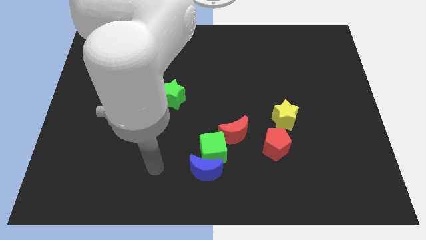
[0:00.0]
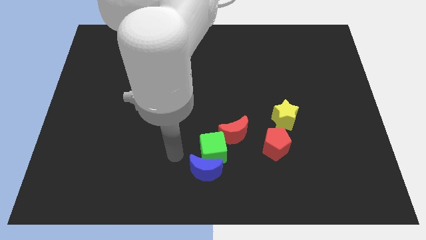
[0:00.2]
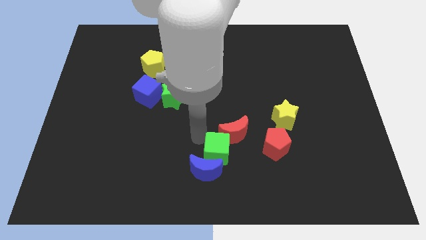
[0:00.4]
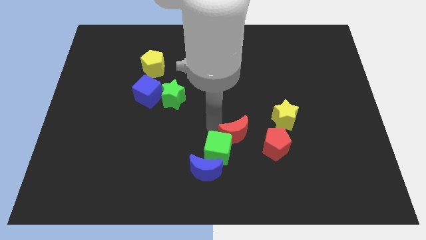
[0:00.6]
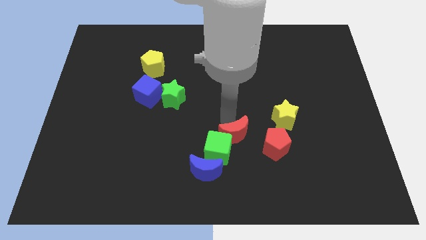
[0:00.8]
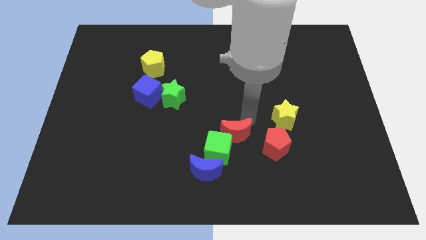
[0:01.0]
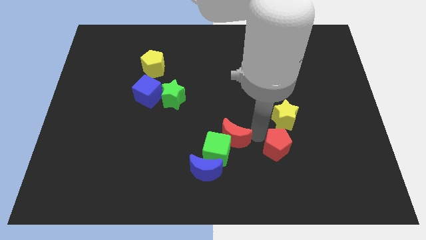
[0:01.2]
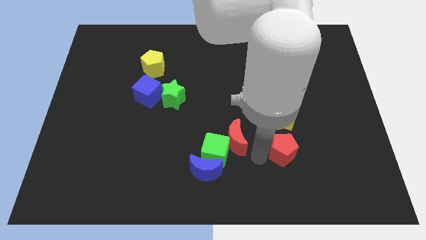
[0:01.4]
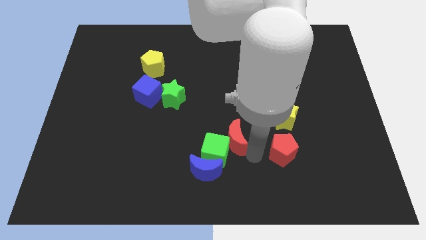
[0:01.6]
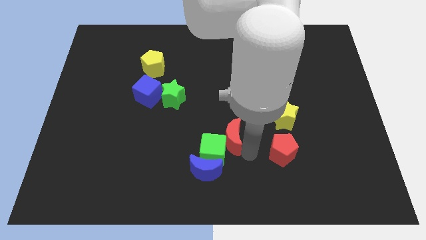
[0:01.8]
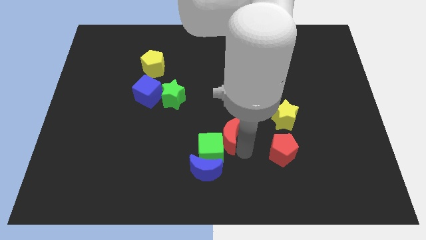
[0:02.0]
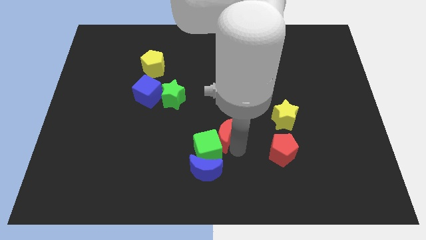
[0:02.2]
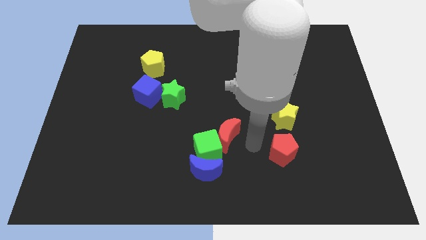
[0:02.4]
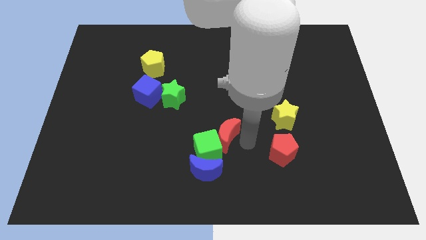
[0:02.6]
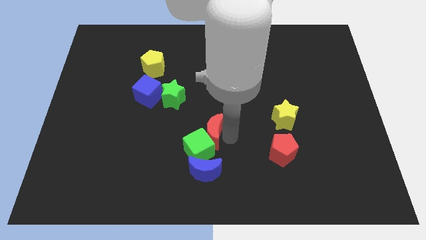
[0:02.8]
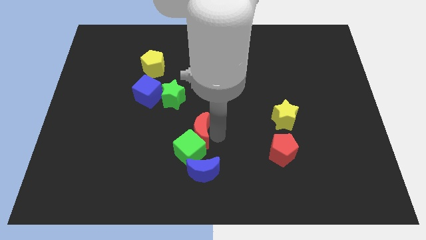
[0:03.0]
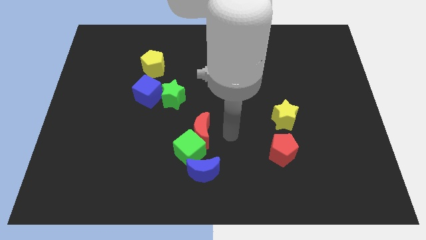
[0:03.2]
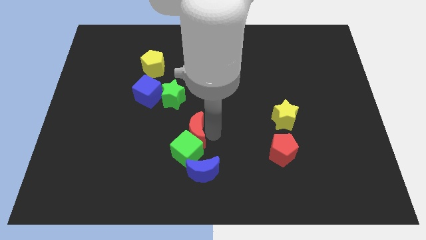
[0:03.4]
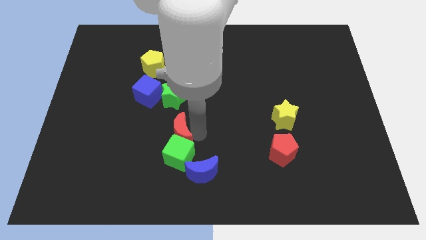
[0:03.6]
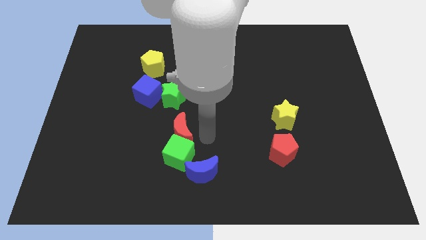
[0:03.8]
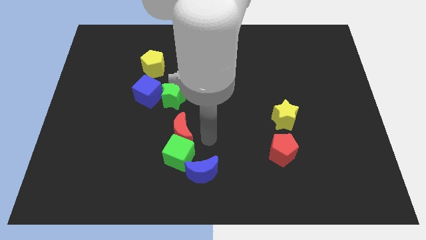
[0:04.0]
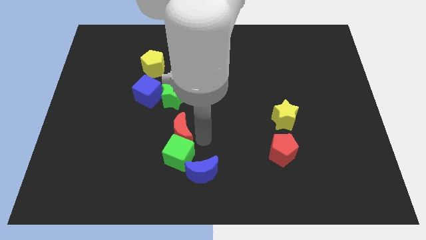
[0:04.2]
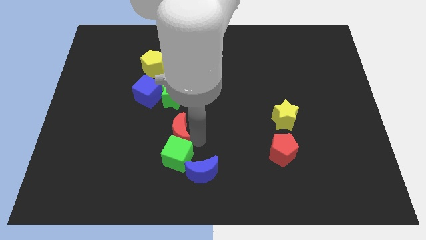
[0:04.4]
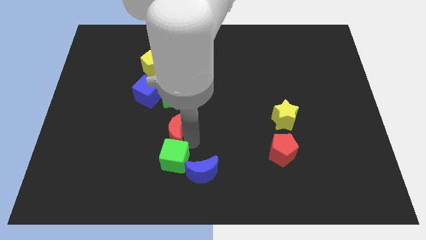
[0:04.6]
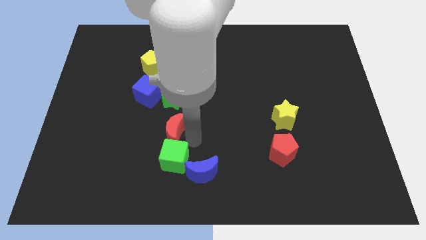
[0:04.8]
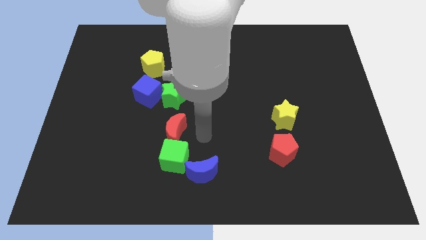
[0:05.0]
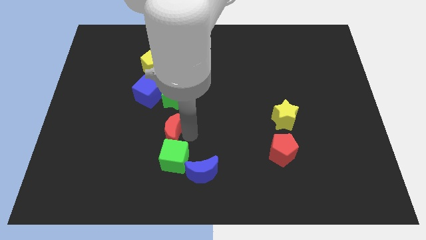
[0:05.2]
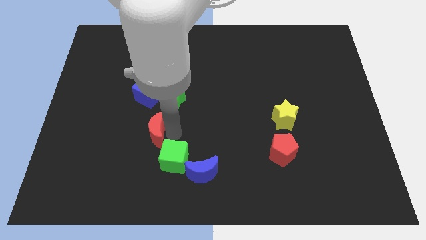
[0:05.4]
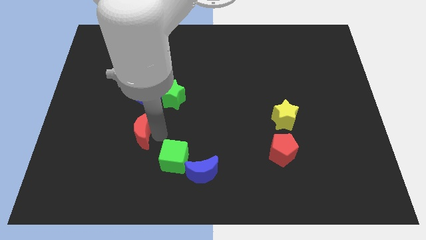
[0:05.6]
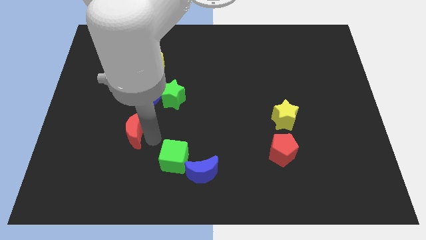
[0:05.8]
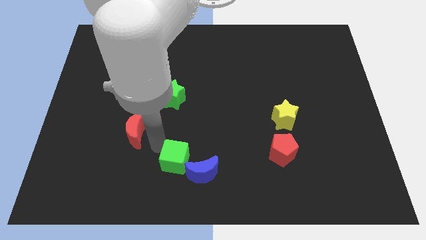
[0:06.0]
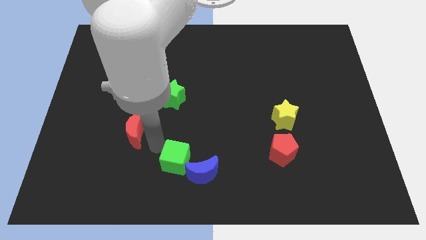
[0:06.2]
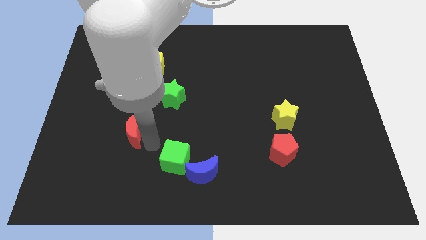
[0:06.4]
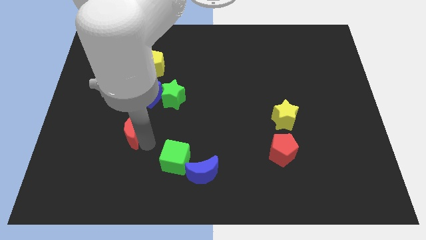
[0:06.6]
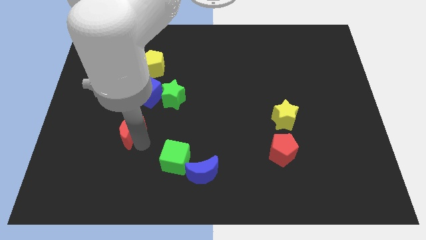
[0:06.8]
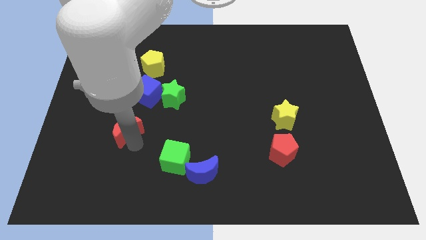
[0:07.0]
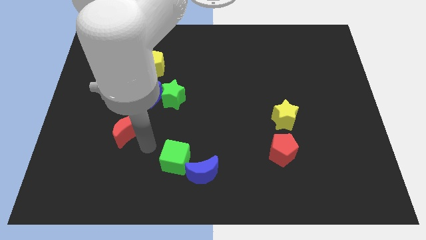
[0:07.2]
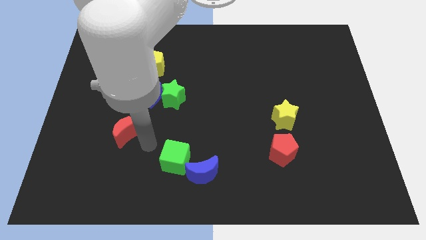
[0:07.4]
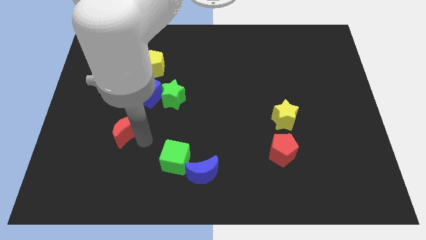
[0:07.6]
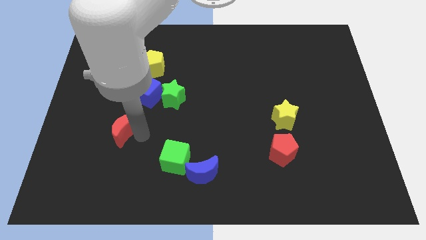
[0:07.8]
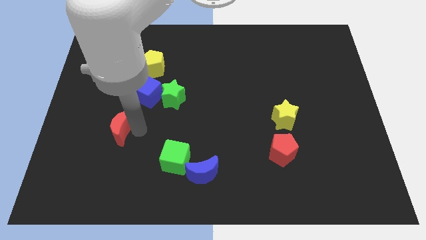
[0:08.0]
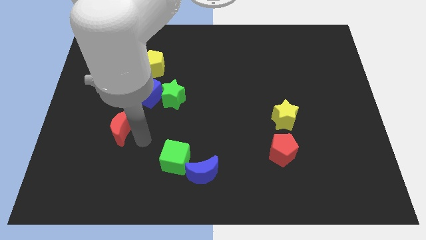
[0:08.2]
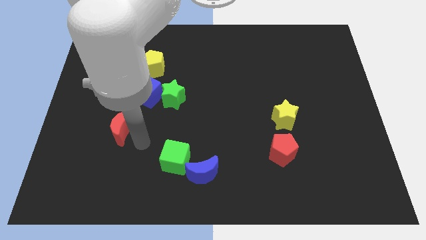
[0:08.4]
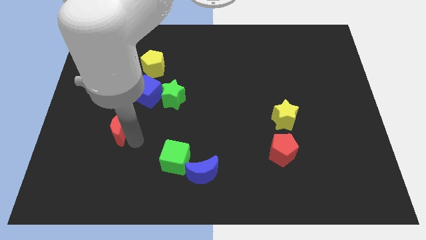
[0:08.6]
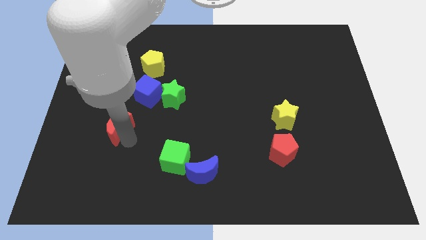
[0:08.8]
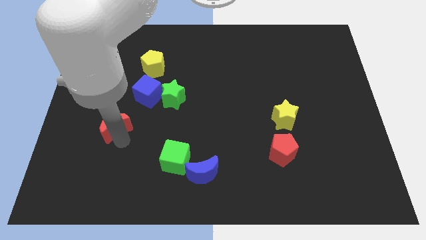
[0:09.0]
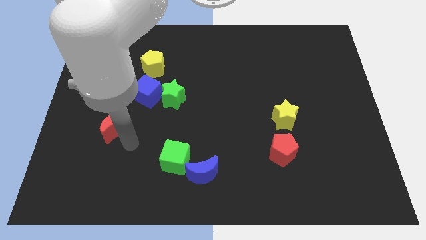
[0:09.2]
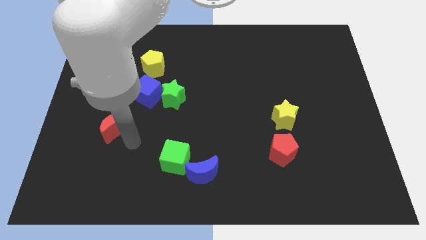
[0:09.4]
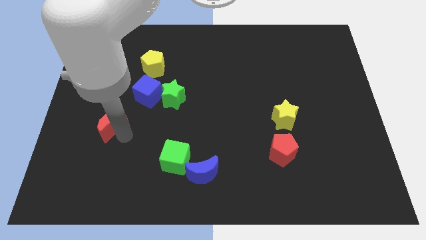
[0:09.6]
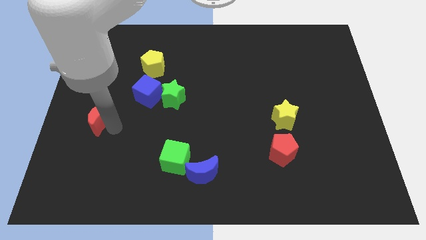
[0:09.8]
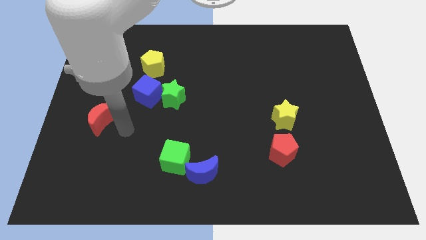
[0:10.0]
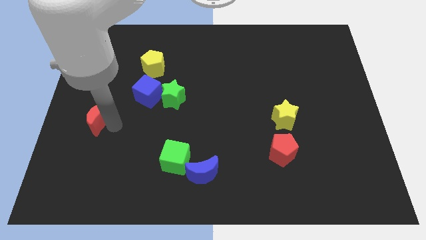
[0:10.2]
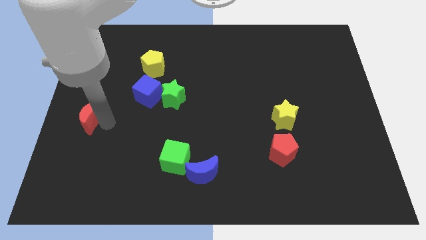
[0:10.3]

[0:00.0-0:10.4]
move the red moon to the left side of the board

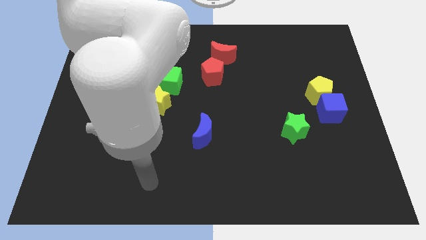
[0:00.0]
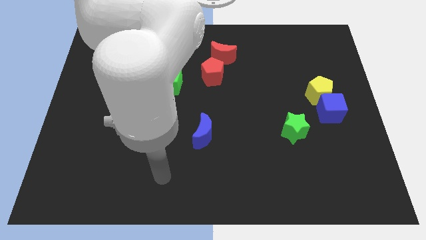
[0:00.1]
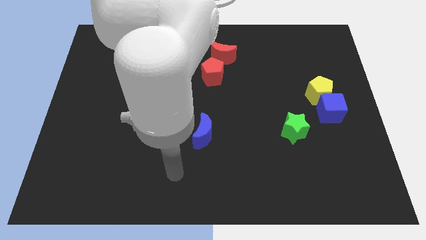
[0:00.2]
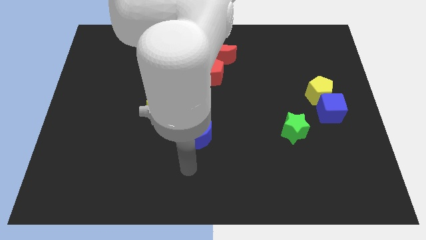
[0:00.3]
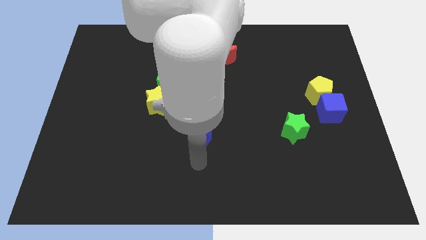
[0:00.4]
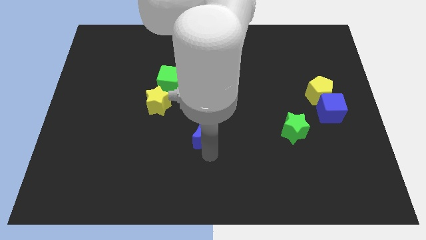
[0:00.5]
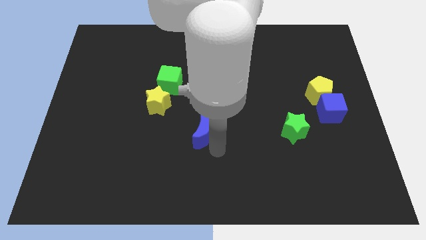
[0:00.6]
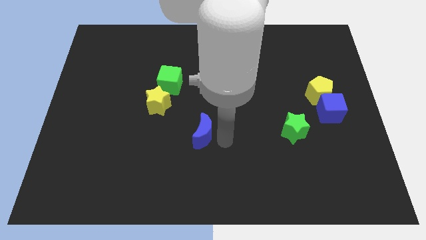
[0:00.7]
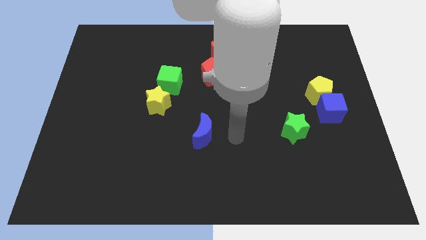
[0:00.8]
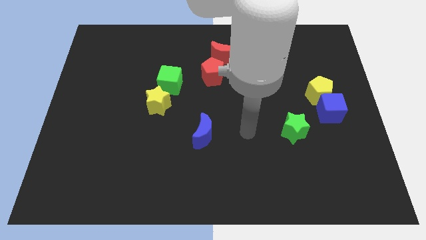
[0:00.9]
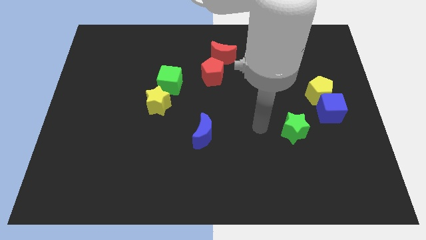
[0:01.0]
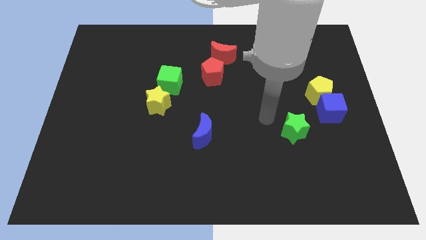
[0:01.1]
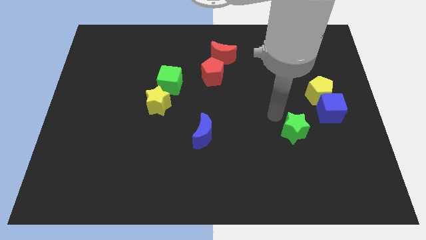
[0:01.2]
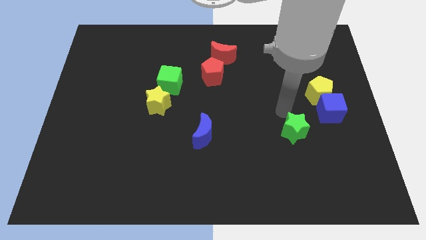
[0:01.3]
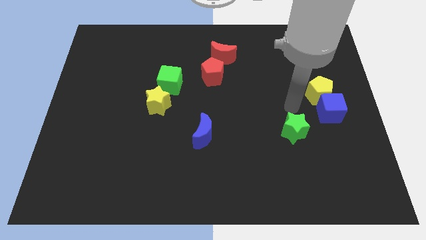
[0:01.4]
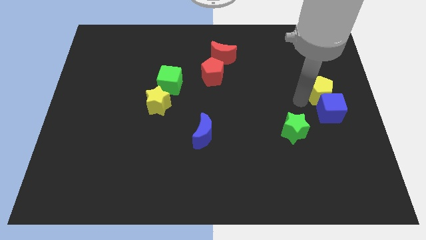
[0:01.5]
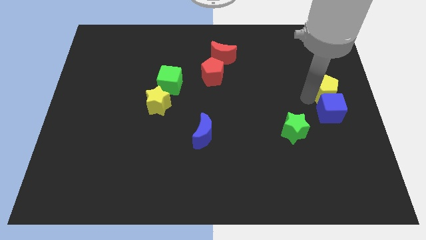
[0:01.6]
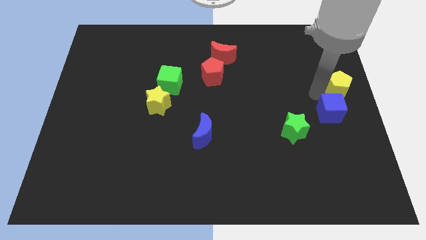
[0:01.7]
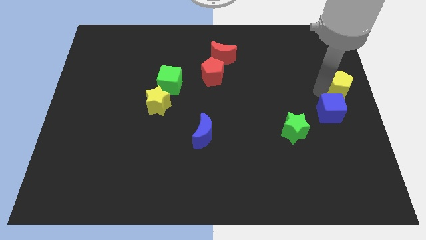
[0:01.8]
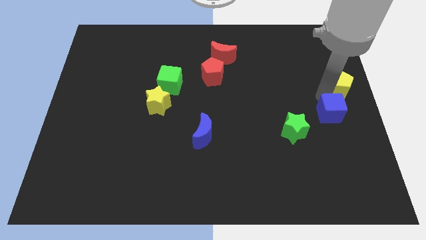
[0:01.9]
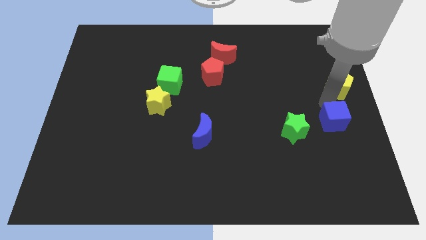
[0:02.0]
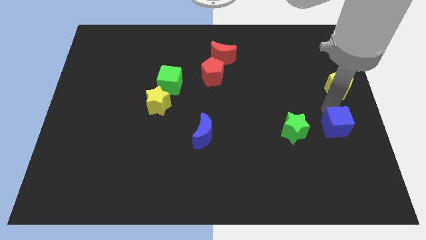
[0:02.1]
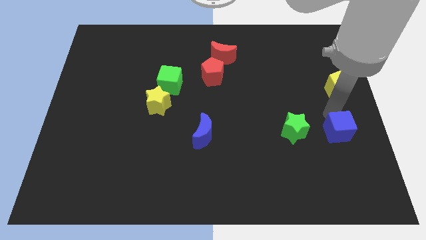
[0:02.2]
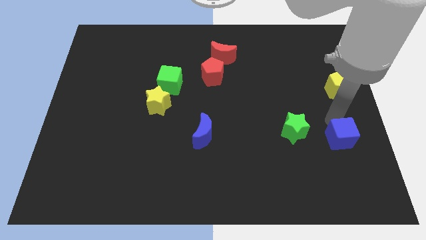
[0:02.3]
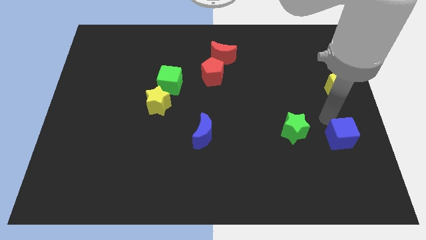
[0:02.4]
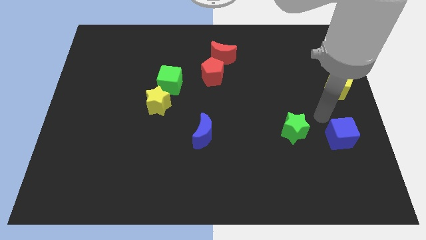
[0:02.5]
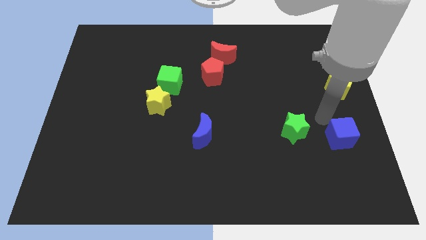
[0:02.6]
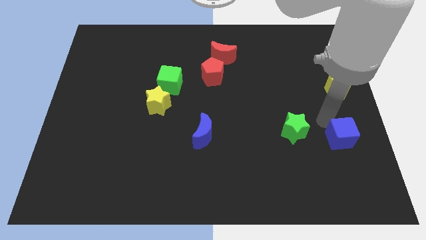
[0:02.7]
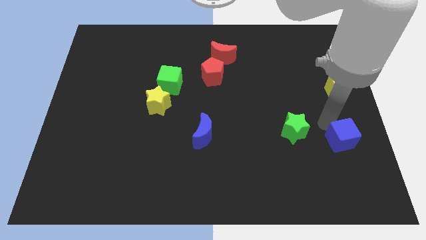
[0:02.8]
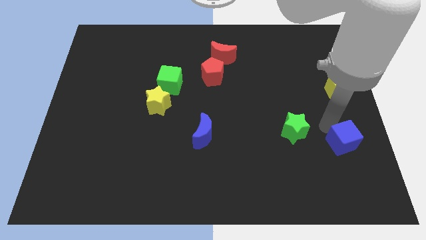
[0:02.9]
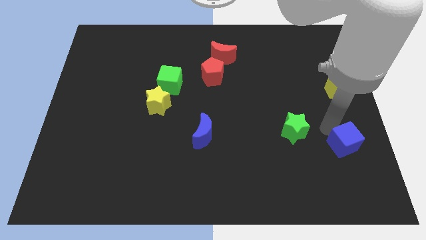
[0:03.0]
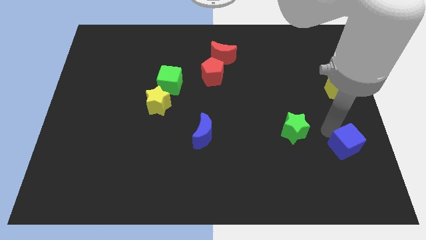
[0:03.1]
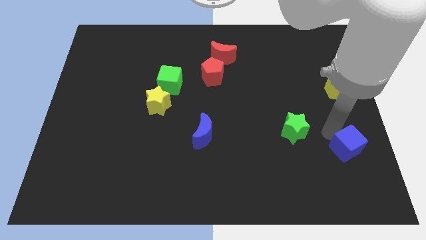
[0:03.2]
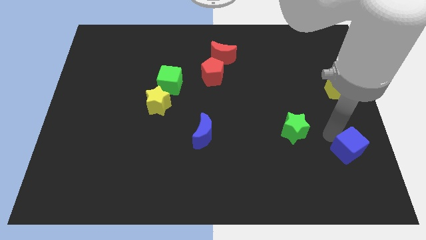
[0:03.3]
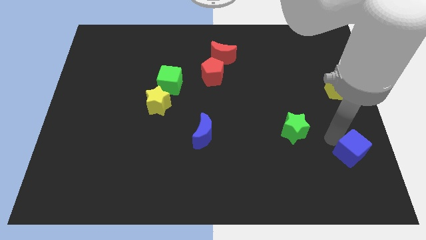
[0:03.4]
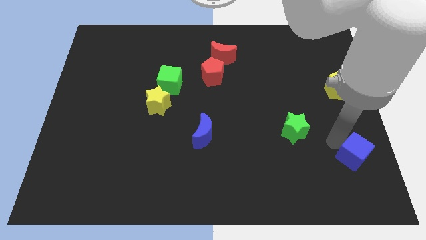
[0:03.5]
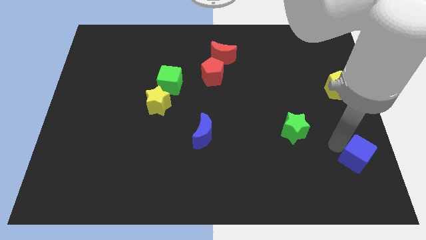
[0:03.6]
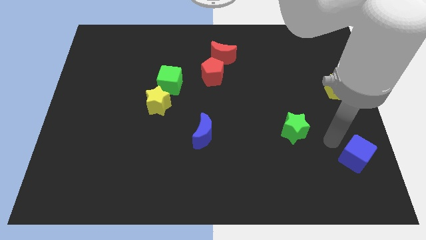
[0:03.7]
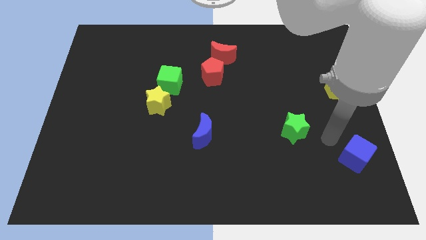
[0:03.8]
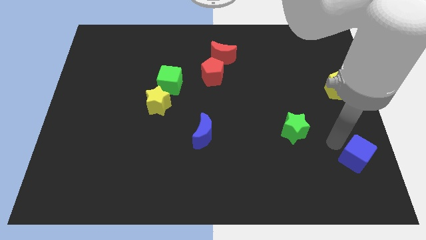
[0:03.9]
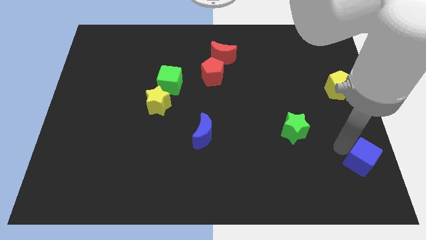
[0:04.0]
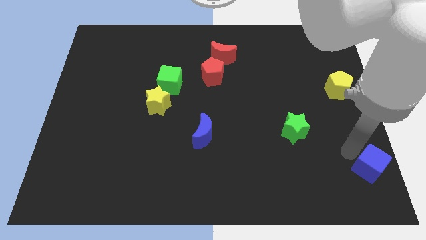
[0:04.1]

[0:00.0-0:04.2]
push the blue cube to the lower right corner
